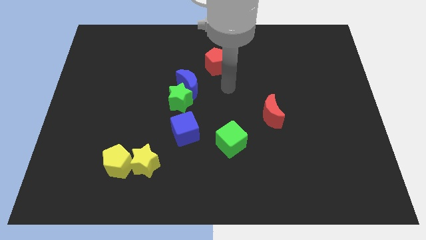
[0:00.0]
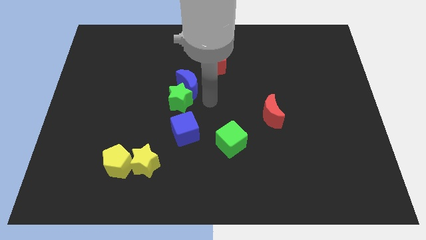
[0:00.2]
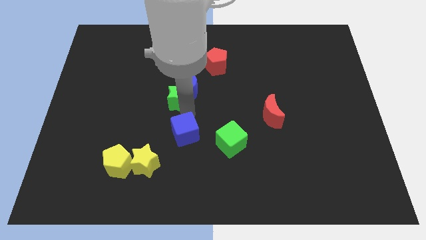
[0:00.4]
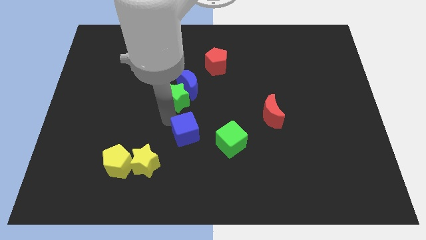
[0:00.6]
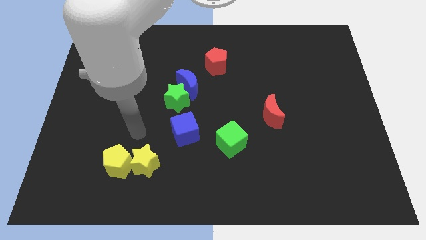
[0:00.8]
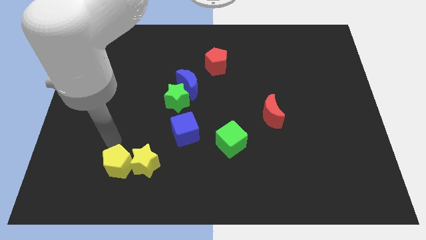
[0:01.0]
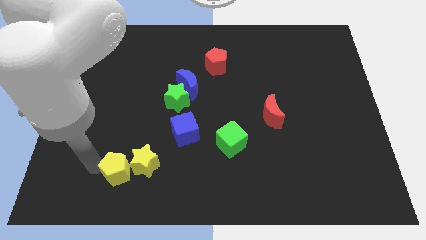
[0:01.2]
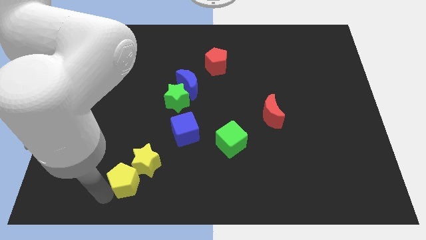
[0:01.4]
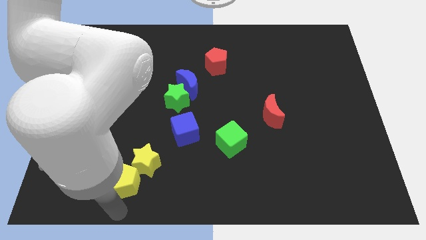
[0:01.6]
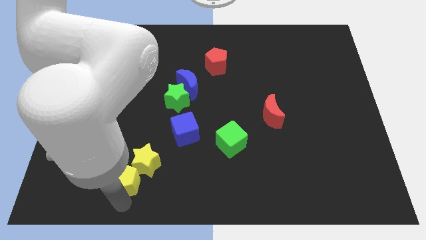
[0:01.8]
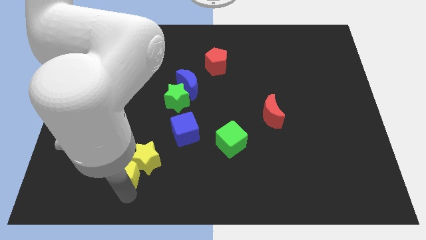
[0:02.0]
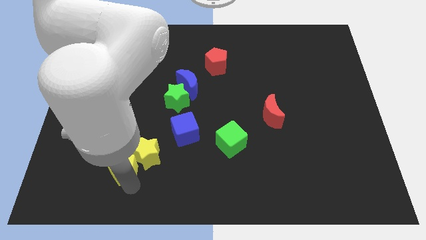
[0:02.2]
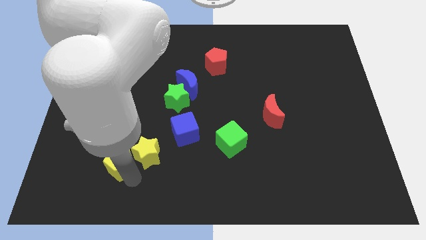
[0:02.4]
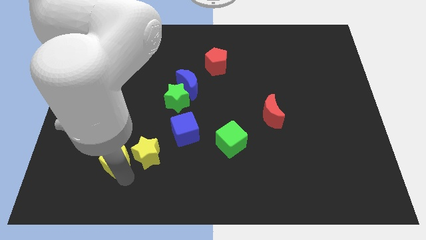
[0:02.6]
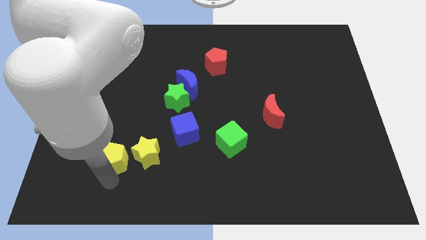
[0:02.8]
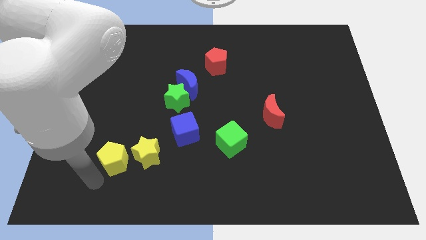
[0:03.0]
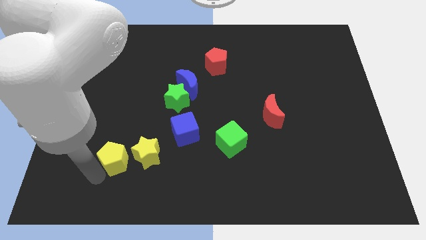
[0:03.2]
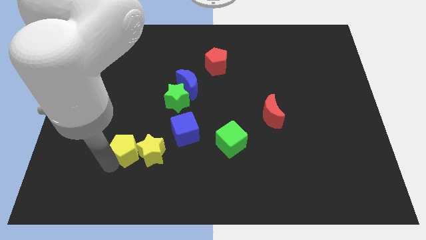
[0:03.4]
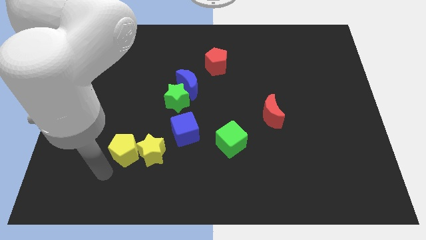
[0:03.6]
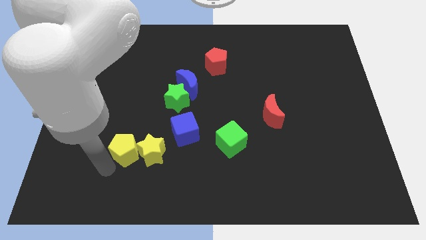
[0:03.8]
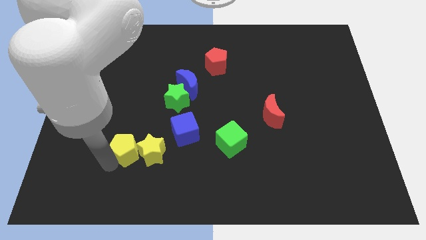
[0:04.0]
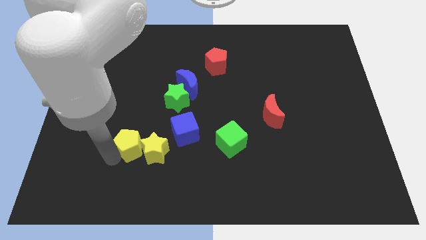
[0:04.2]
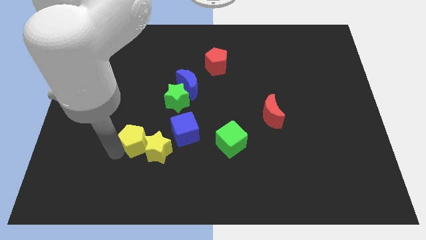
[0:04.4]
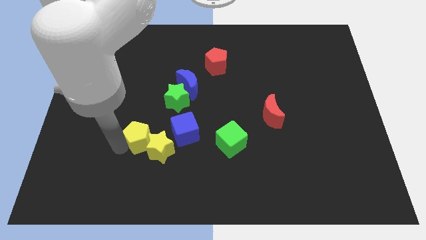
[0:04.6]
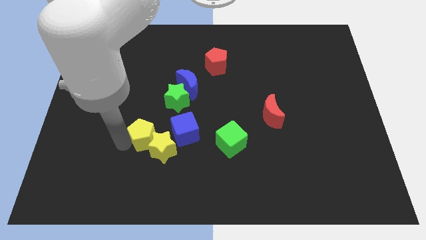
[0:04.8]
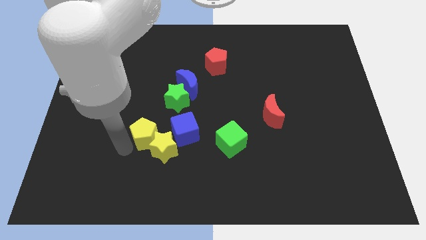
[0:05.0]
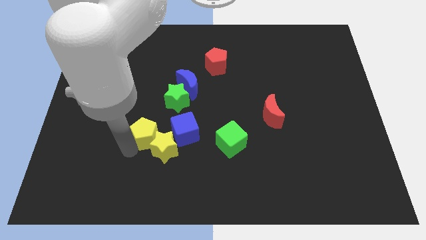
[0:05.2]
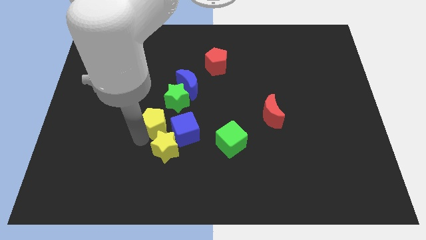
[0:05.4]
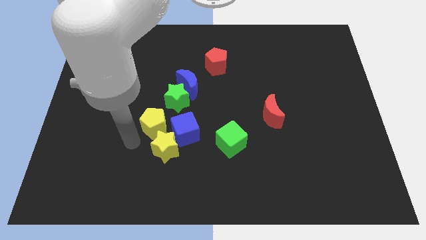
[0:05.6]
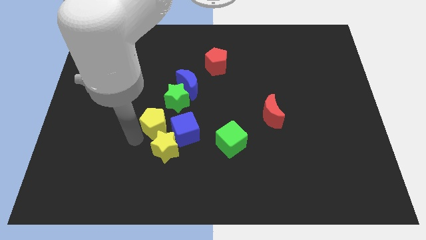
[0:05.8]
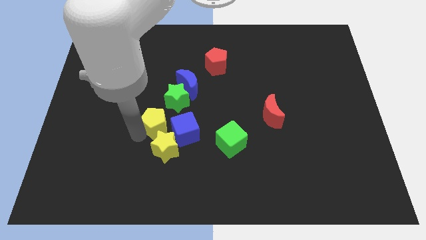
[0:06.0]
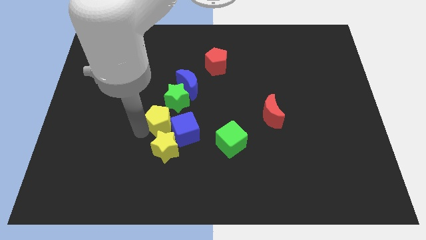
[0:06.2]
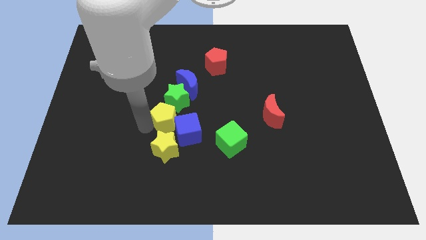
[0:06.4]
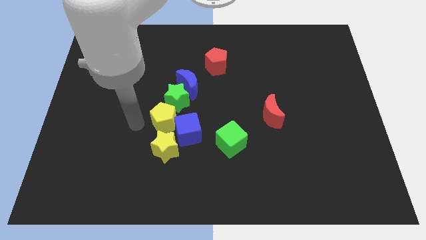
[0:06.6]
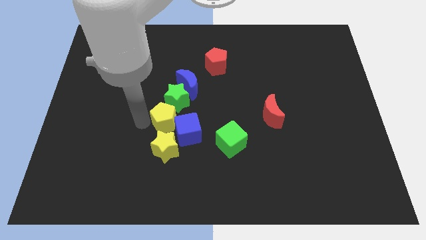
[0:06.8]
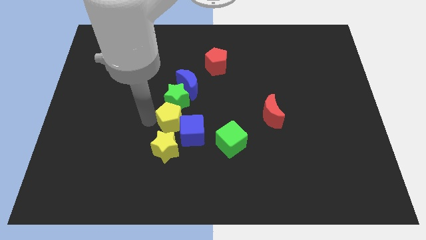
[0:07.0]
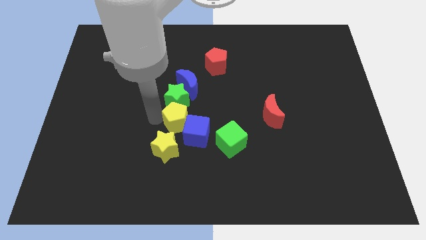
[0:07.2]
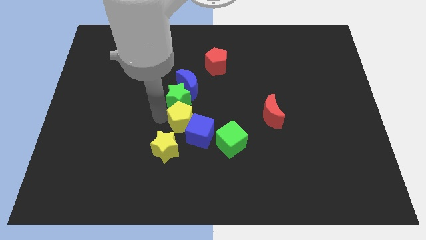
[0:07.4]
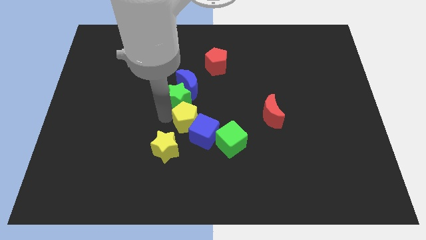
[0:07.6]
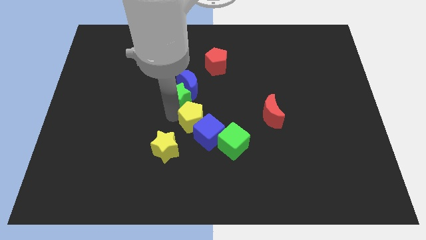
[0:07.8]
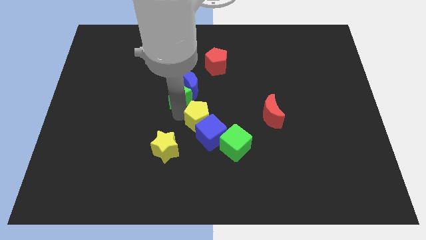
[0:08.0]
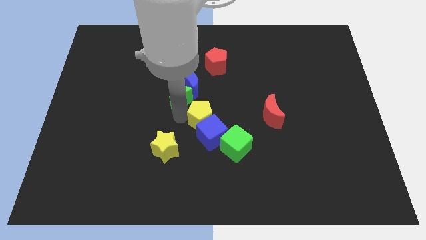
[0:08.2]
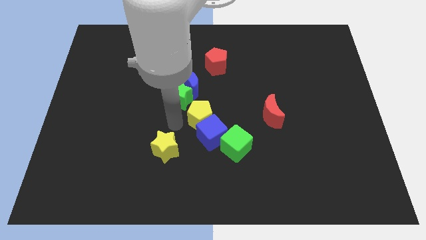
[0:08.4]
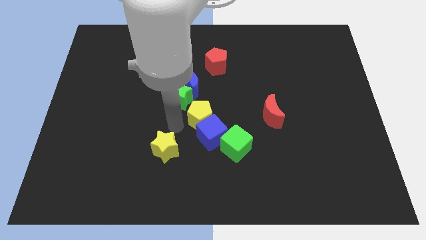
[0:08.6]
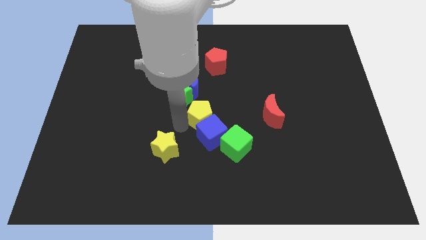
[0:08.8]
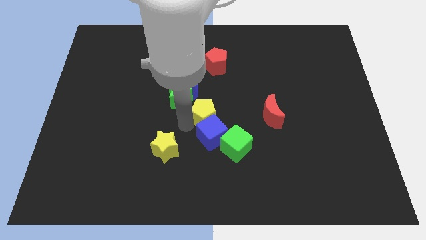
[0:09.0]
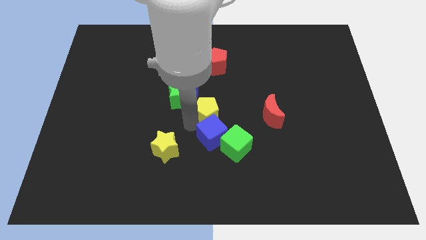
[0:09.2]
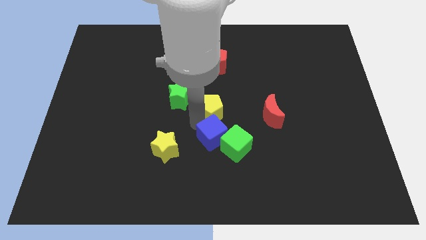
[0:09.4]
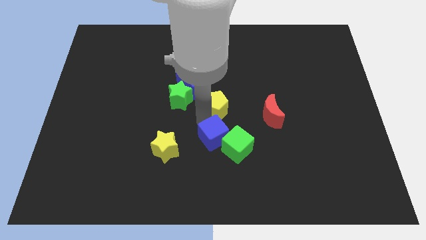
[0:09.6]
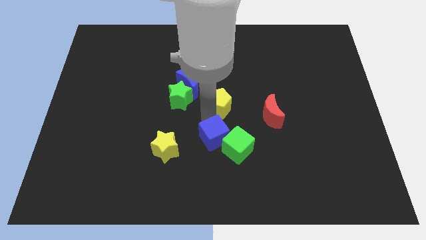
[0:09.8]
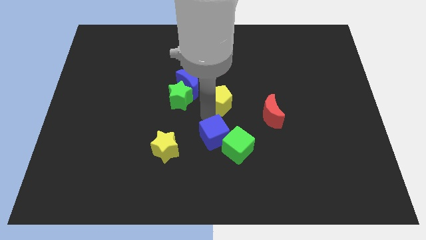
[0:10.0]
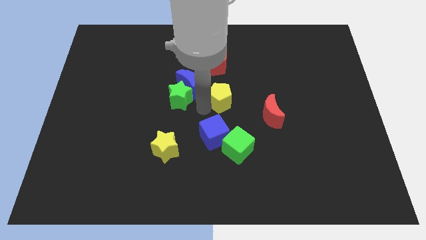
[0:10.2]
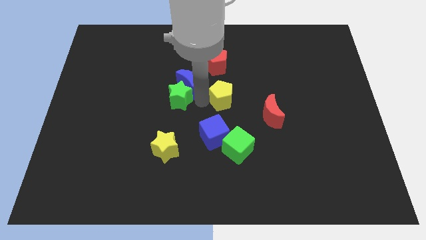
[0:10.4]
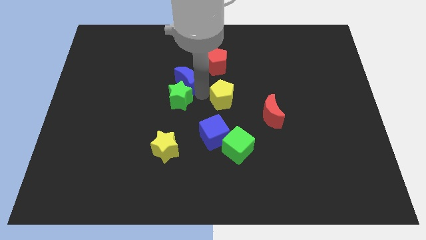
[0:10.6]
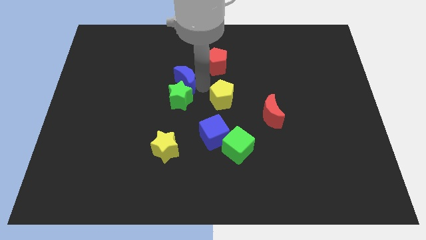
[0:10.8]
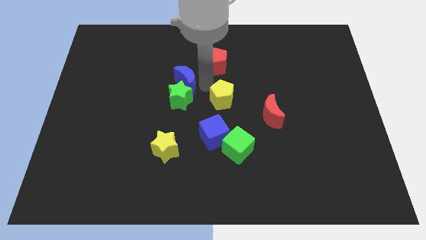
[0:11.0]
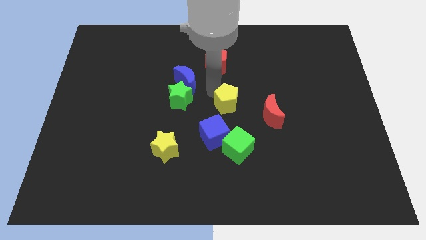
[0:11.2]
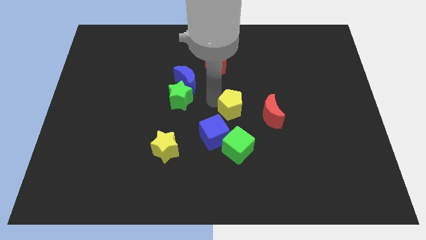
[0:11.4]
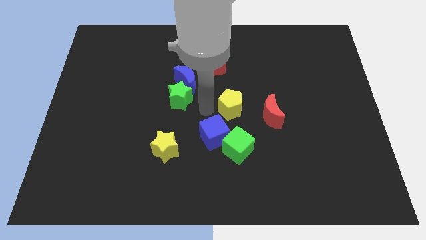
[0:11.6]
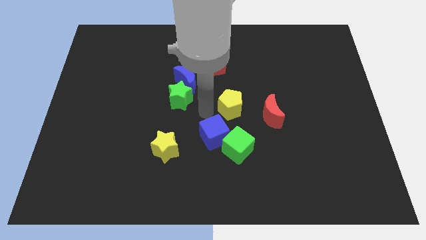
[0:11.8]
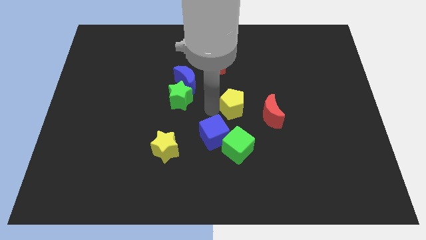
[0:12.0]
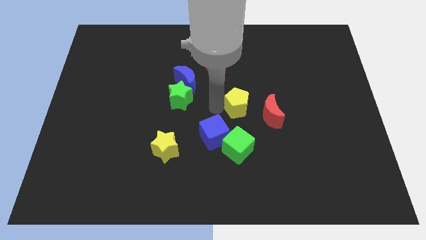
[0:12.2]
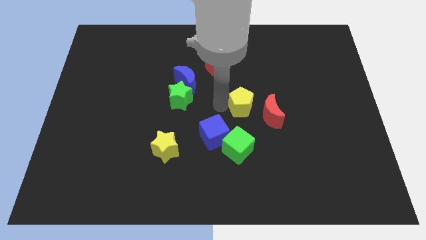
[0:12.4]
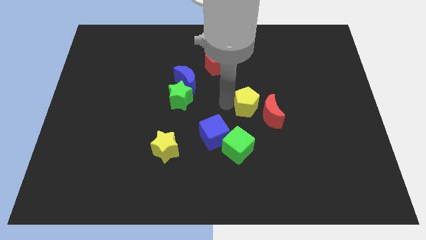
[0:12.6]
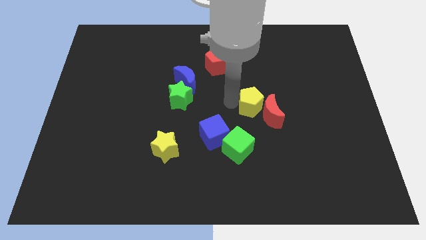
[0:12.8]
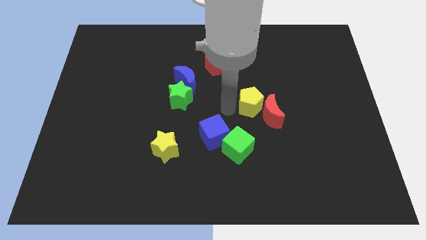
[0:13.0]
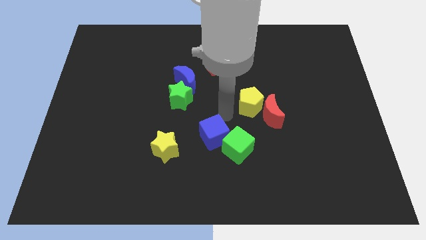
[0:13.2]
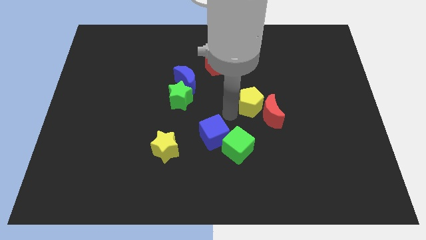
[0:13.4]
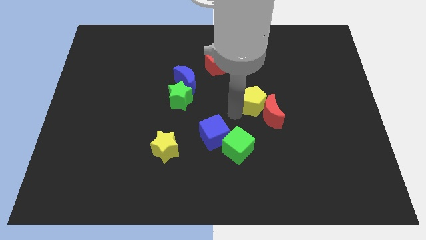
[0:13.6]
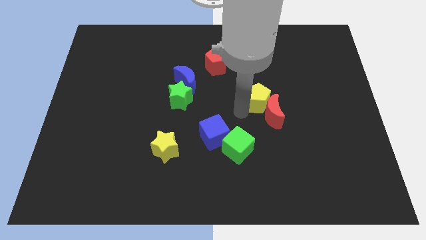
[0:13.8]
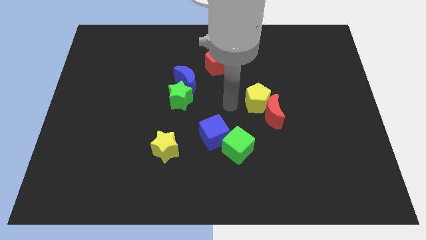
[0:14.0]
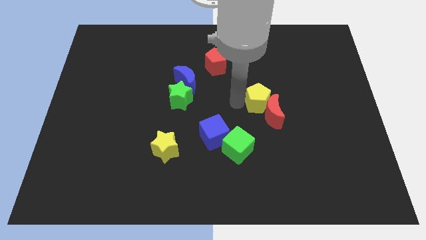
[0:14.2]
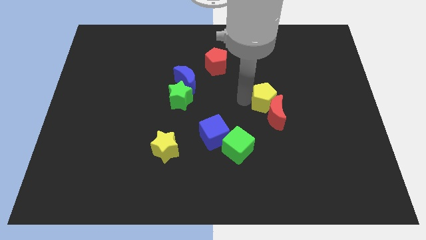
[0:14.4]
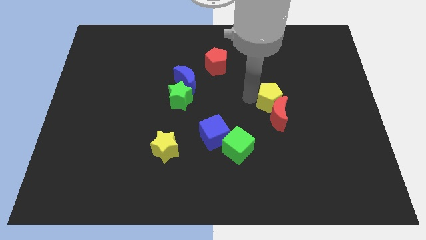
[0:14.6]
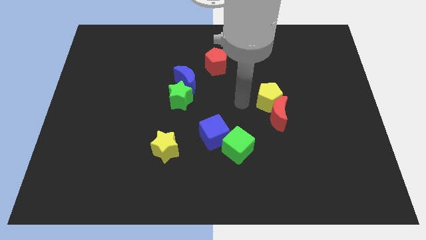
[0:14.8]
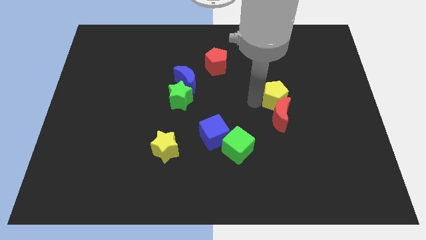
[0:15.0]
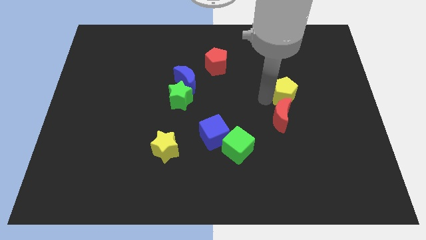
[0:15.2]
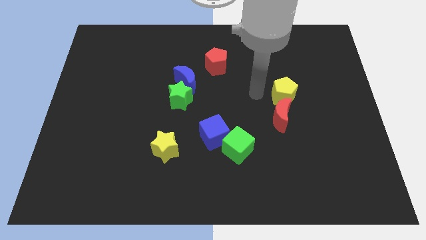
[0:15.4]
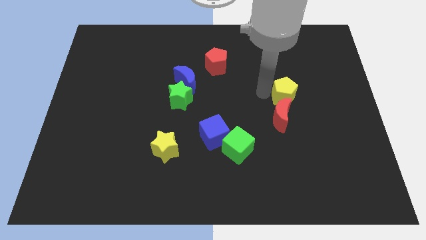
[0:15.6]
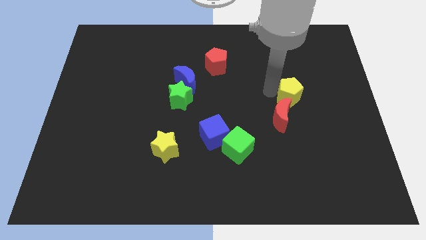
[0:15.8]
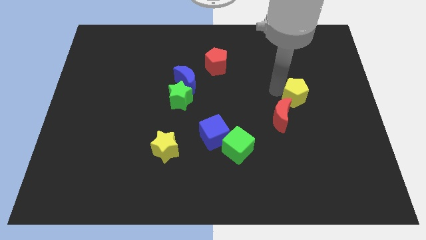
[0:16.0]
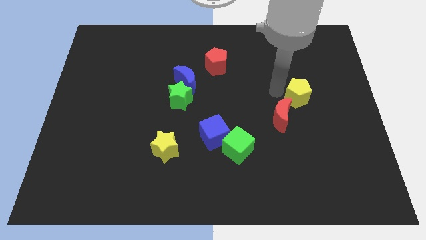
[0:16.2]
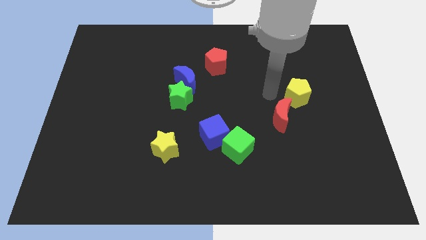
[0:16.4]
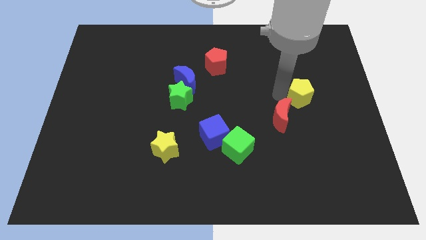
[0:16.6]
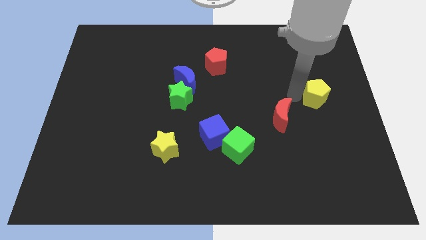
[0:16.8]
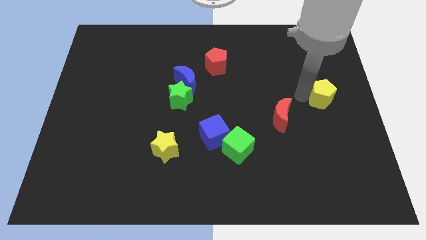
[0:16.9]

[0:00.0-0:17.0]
push the yellow pentagon to the right side
